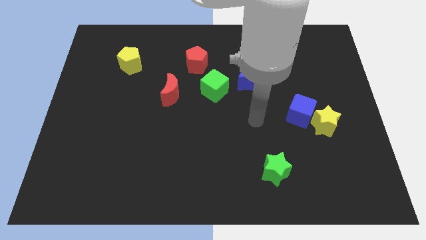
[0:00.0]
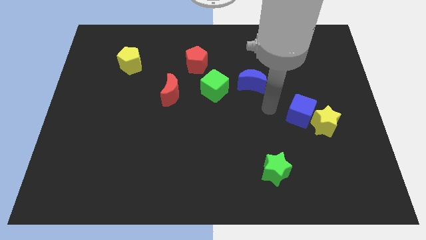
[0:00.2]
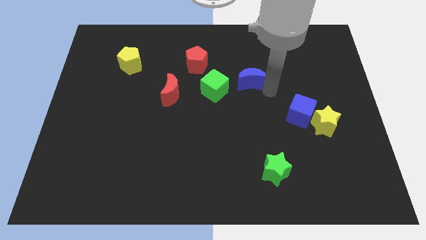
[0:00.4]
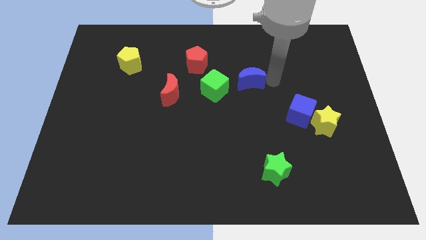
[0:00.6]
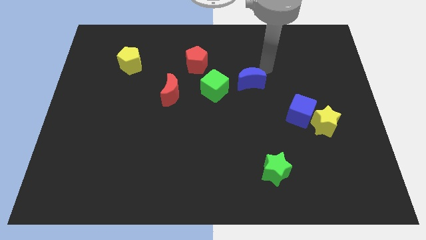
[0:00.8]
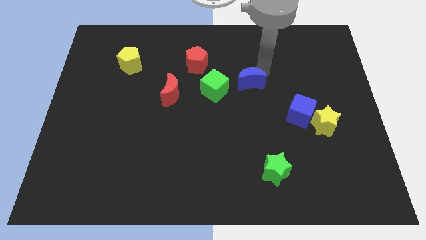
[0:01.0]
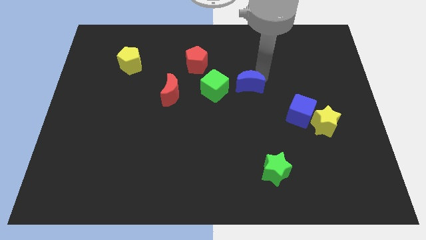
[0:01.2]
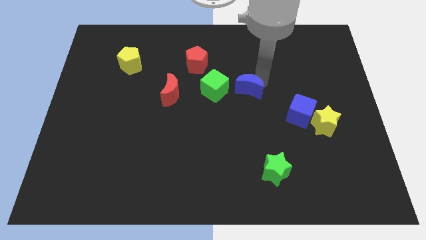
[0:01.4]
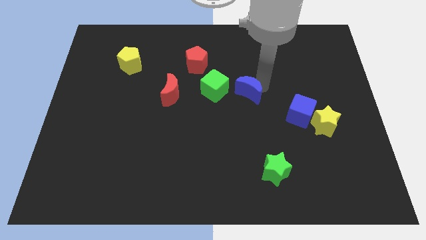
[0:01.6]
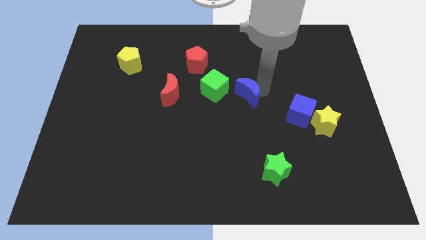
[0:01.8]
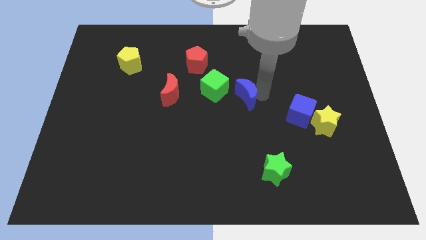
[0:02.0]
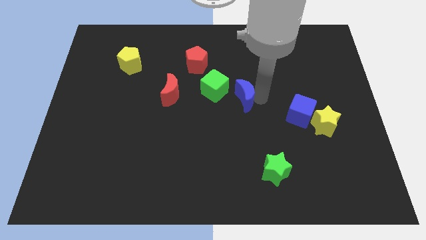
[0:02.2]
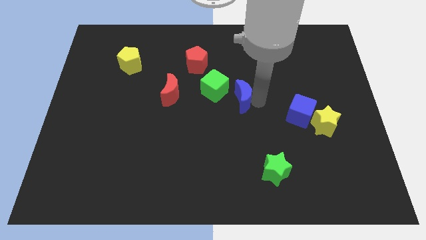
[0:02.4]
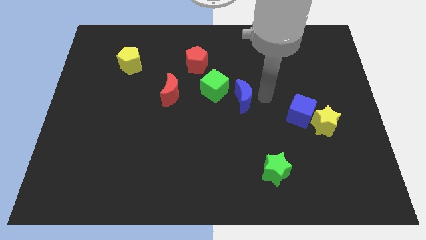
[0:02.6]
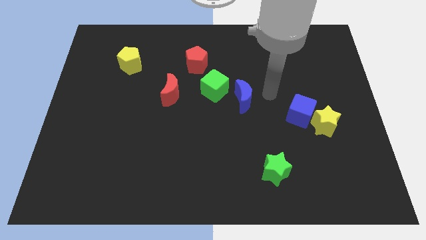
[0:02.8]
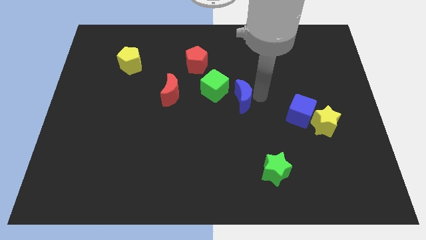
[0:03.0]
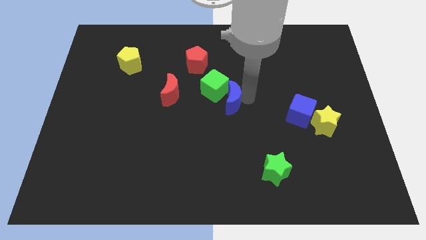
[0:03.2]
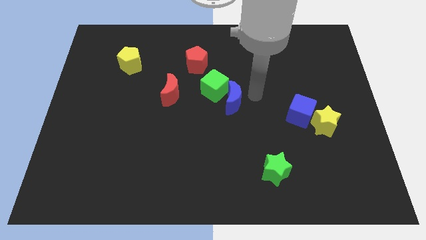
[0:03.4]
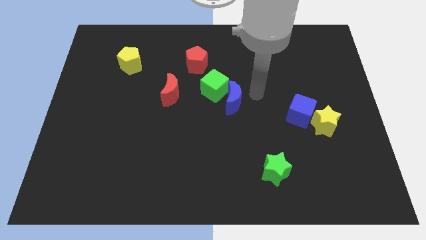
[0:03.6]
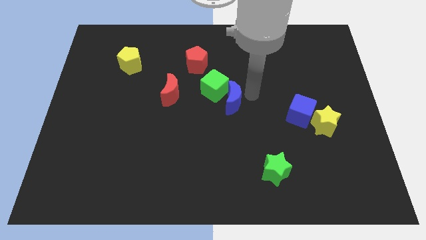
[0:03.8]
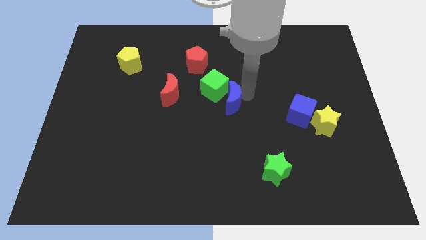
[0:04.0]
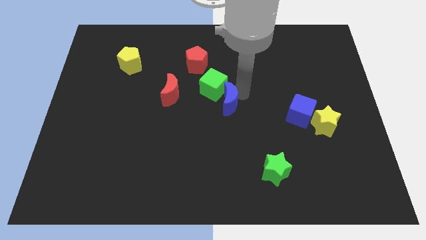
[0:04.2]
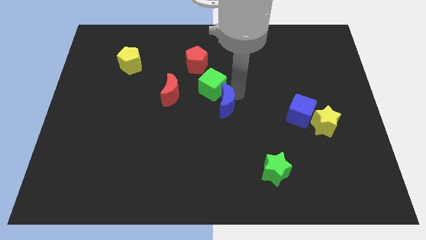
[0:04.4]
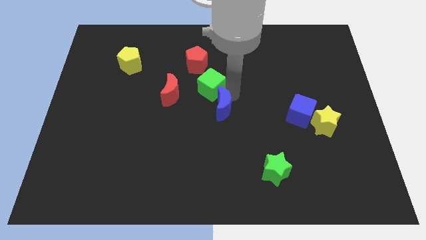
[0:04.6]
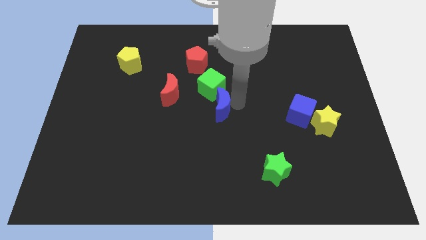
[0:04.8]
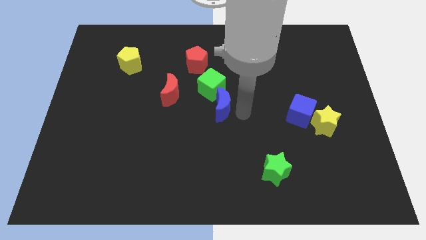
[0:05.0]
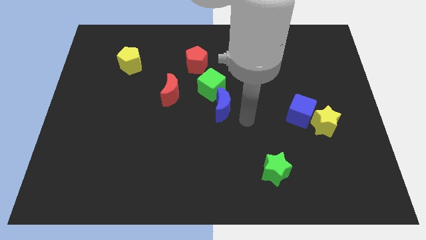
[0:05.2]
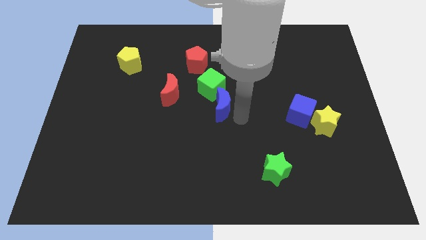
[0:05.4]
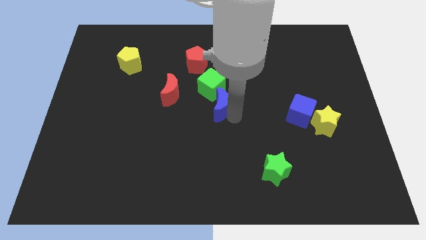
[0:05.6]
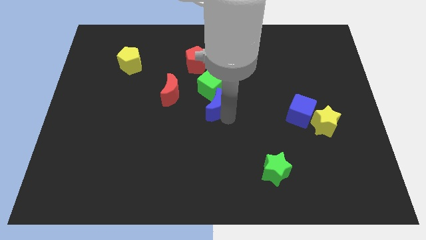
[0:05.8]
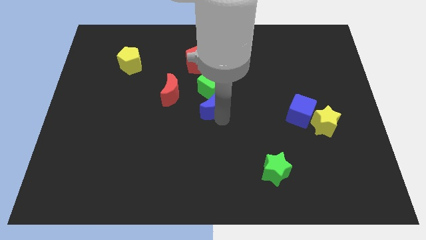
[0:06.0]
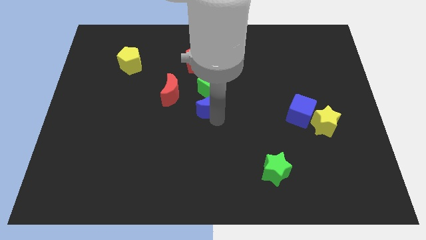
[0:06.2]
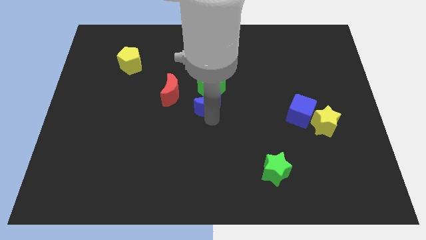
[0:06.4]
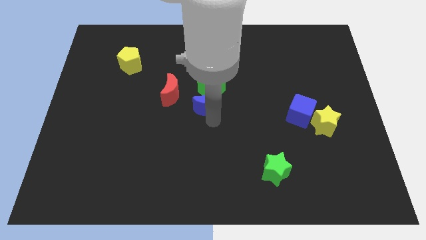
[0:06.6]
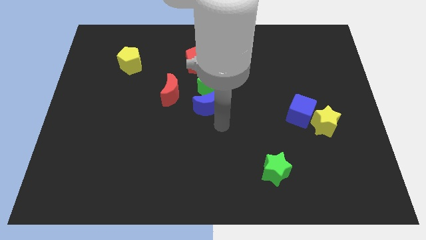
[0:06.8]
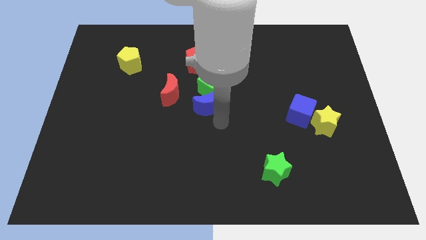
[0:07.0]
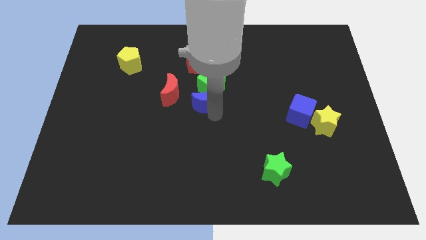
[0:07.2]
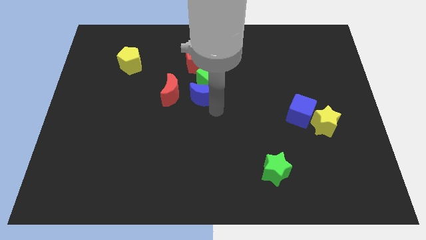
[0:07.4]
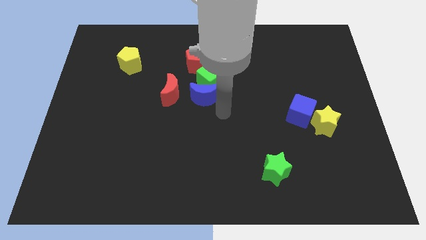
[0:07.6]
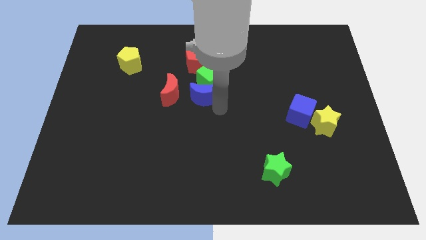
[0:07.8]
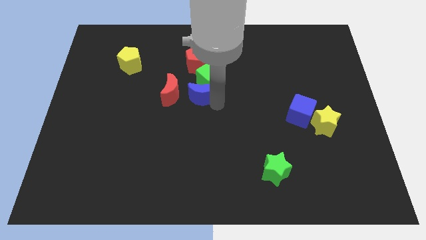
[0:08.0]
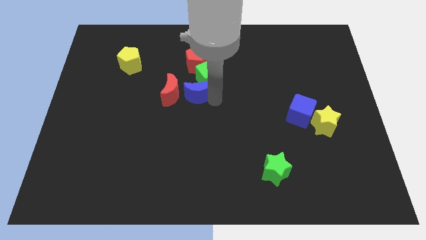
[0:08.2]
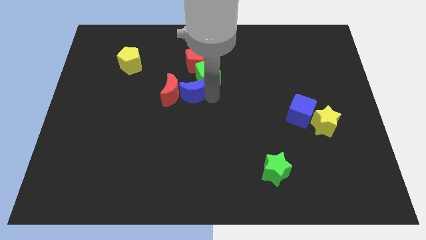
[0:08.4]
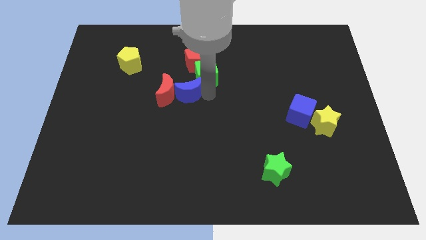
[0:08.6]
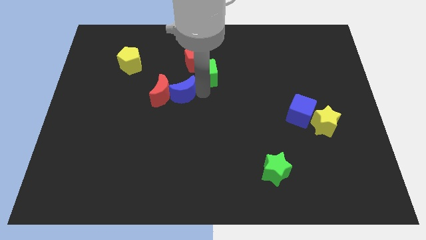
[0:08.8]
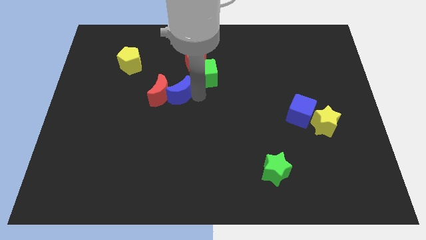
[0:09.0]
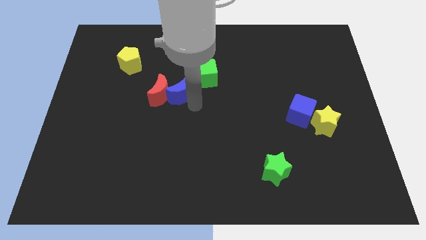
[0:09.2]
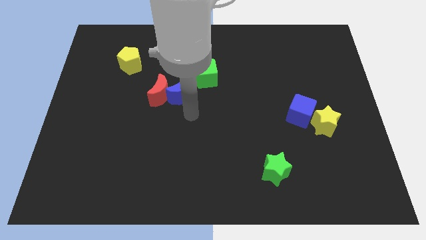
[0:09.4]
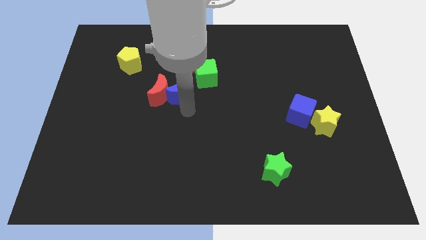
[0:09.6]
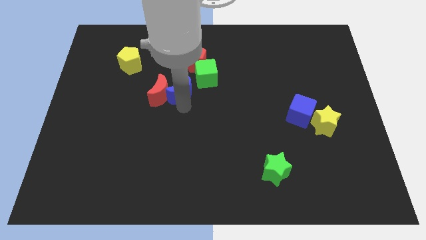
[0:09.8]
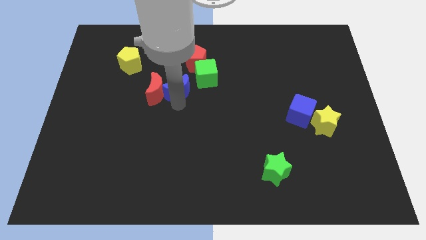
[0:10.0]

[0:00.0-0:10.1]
push the blue moon to the bottom left of the red pentagon

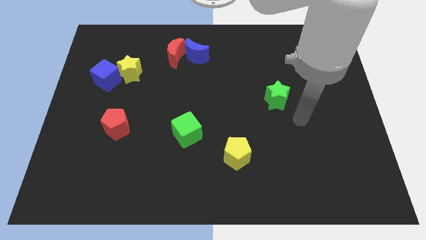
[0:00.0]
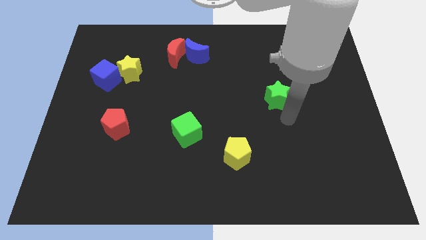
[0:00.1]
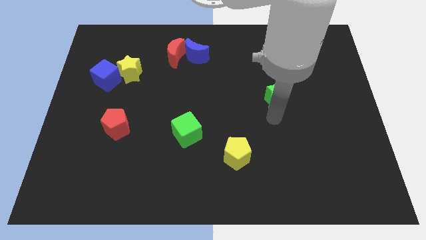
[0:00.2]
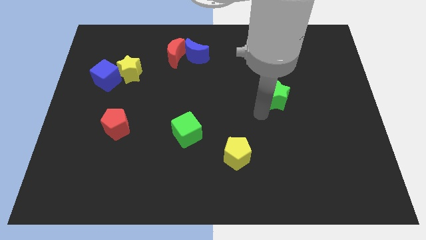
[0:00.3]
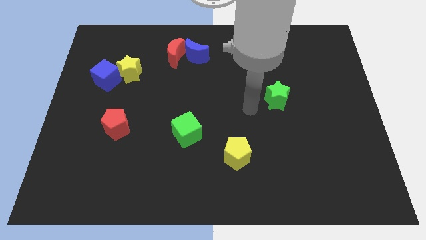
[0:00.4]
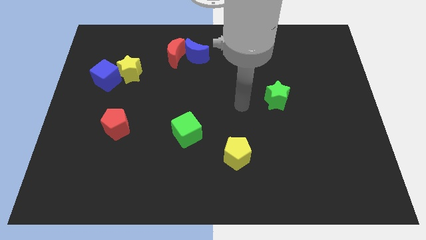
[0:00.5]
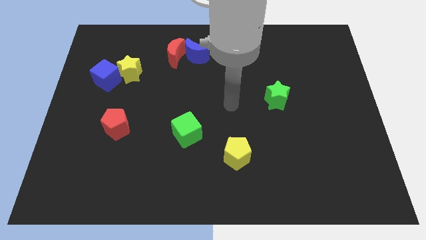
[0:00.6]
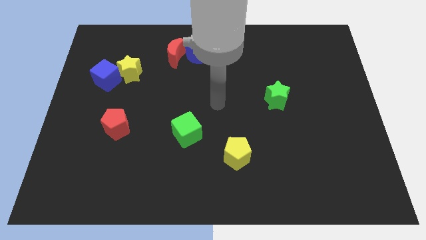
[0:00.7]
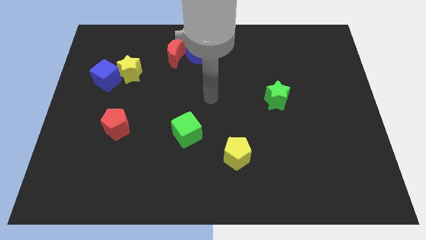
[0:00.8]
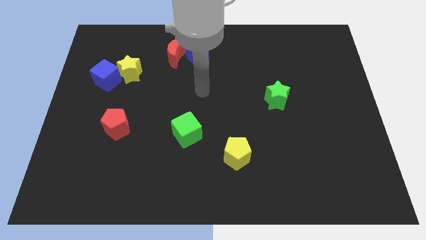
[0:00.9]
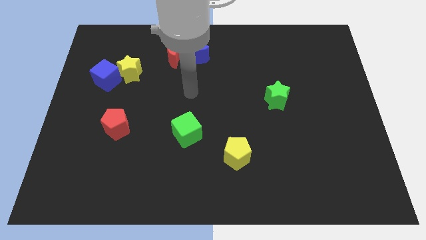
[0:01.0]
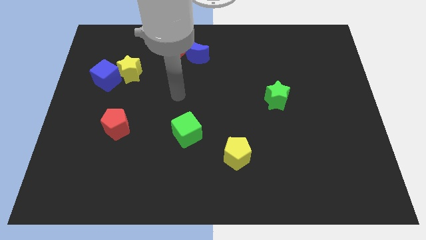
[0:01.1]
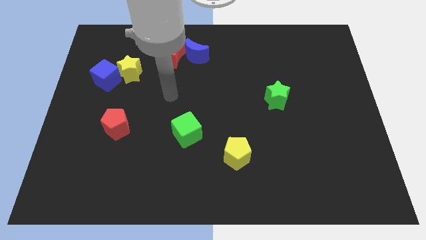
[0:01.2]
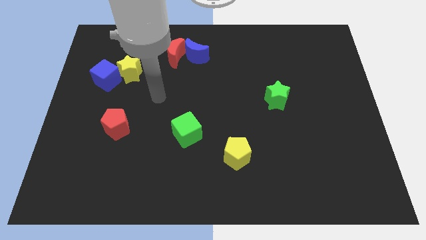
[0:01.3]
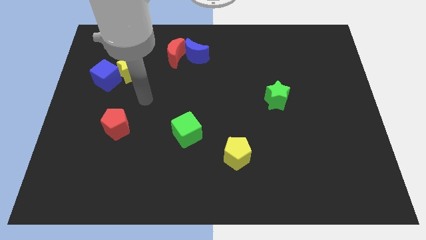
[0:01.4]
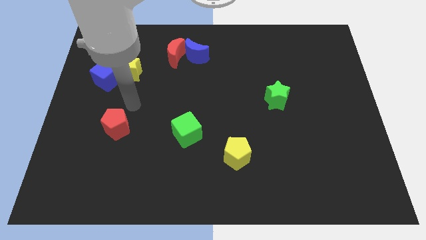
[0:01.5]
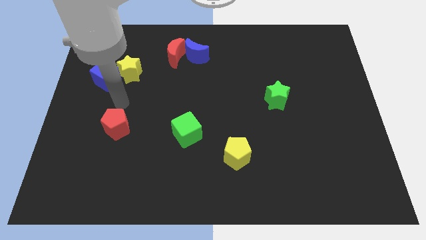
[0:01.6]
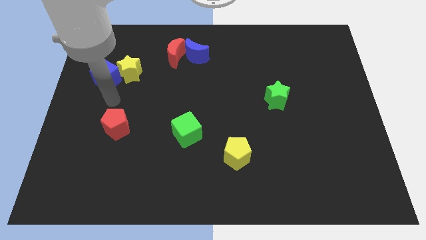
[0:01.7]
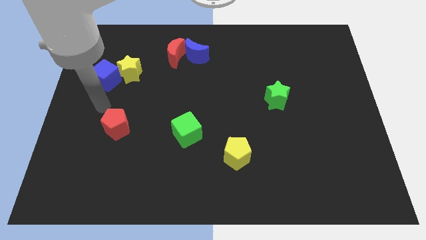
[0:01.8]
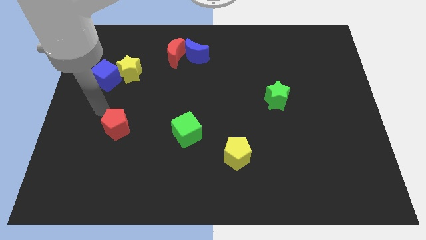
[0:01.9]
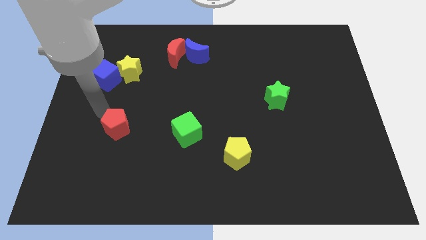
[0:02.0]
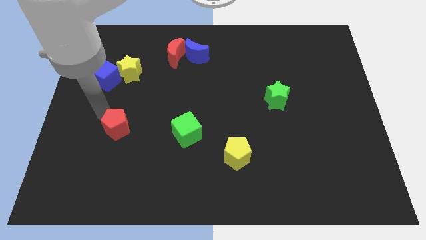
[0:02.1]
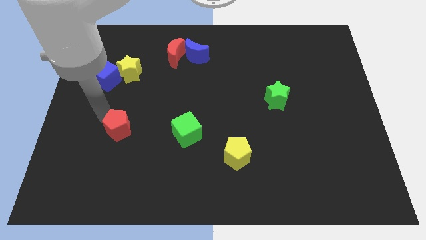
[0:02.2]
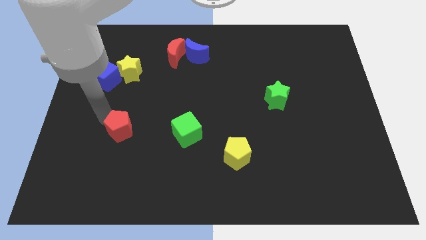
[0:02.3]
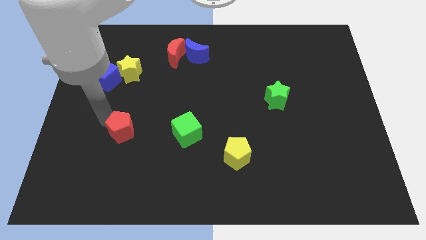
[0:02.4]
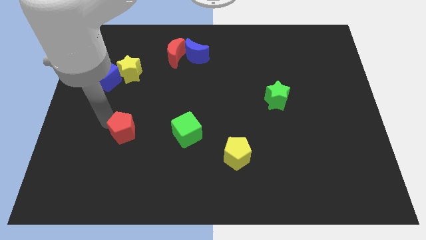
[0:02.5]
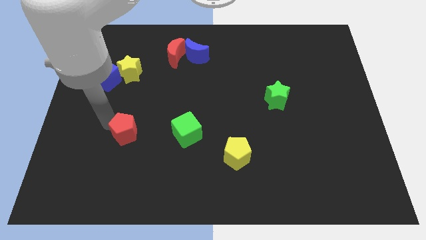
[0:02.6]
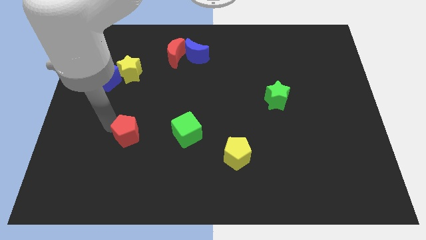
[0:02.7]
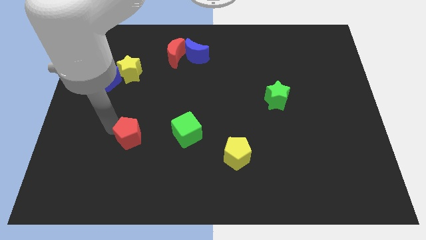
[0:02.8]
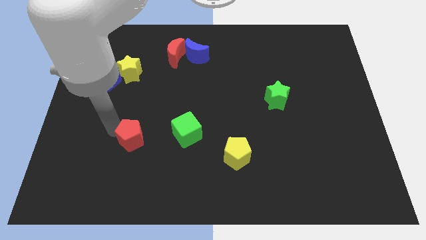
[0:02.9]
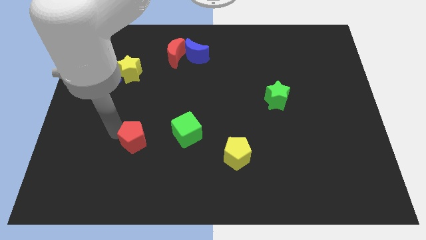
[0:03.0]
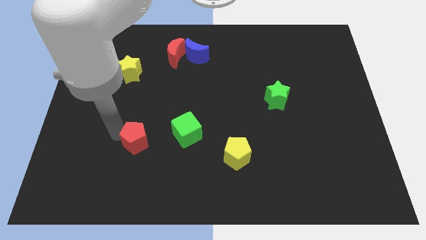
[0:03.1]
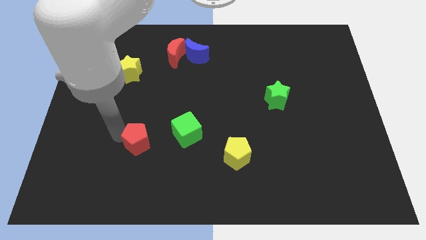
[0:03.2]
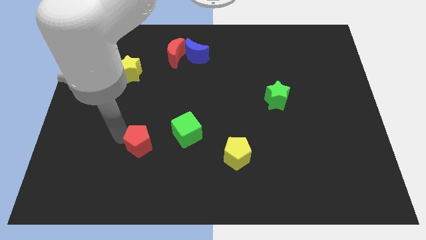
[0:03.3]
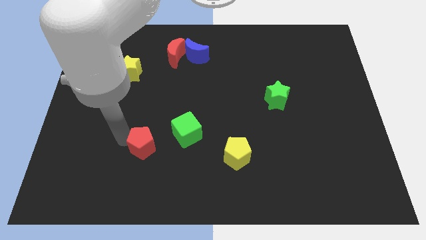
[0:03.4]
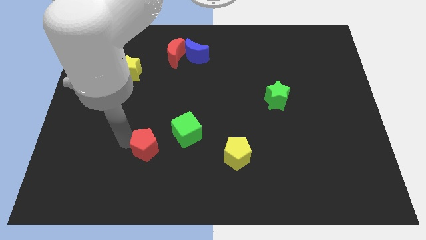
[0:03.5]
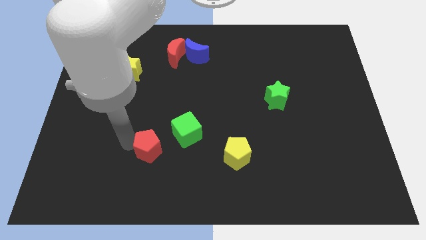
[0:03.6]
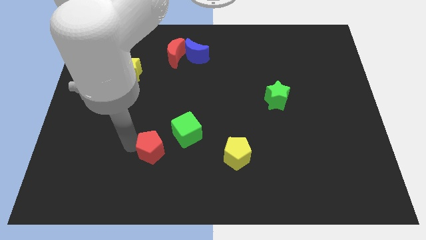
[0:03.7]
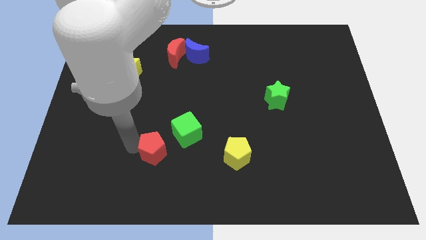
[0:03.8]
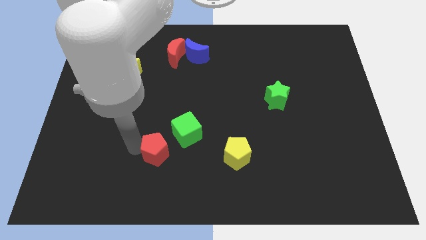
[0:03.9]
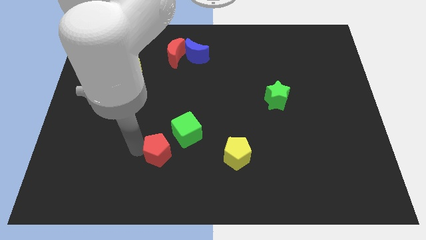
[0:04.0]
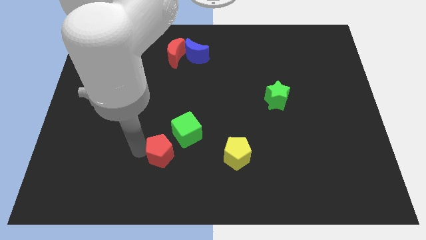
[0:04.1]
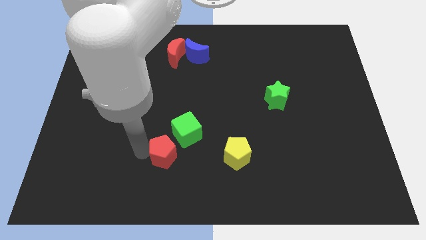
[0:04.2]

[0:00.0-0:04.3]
move the red pentagon to the bottom of the green cube
